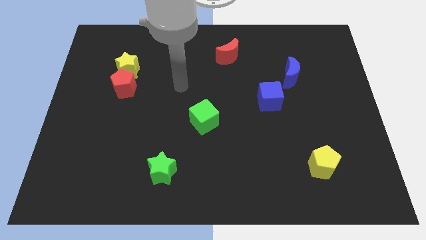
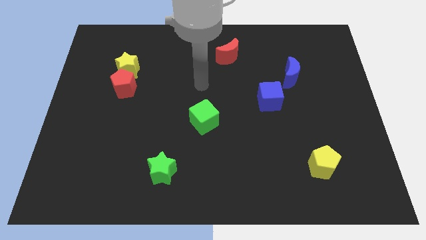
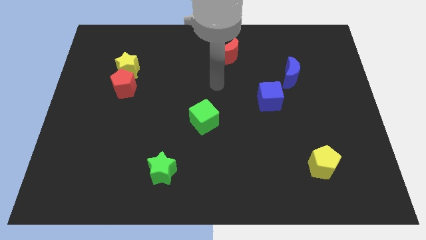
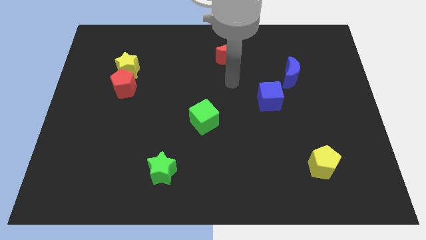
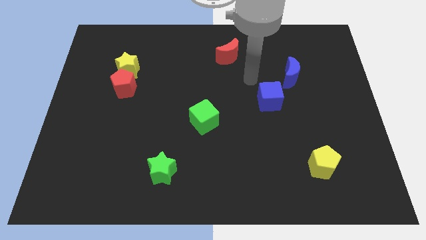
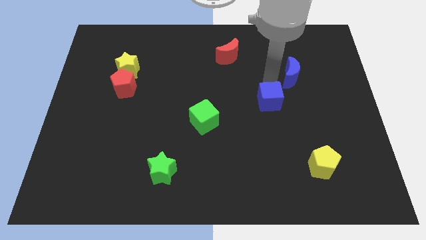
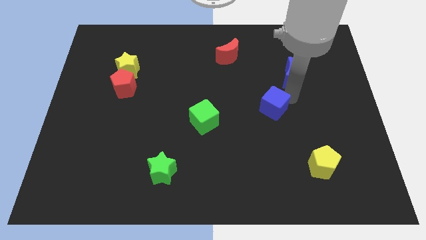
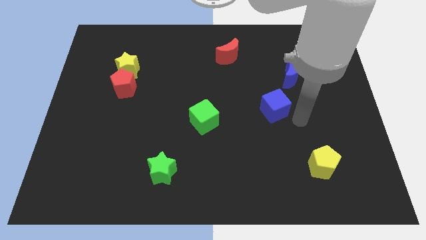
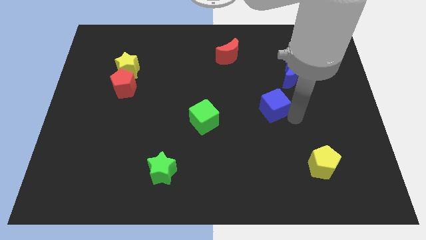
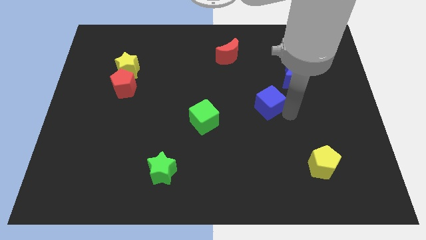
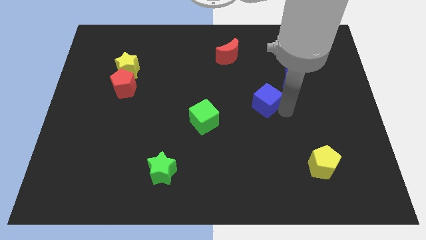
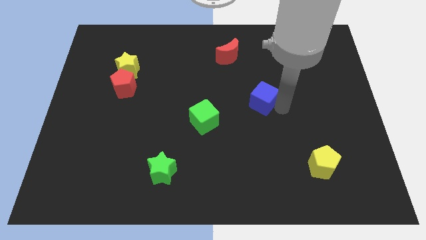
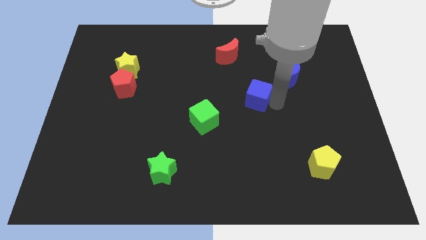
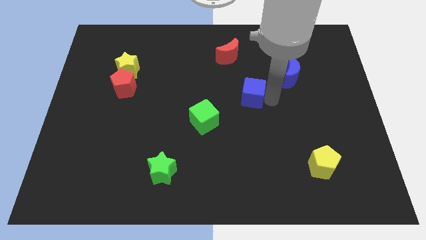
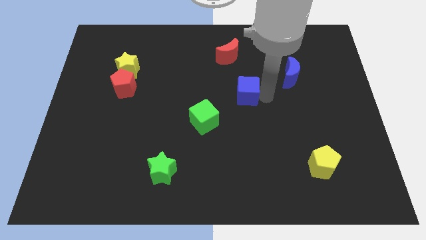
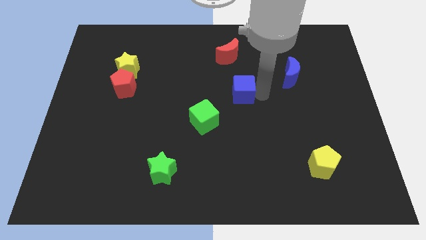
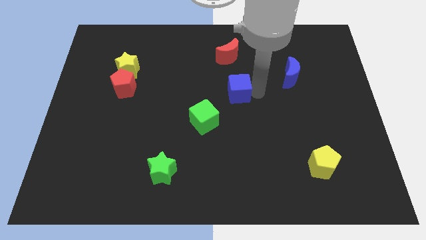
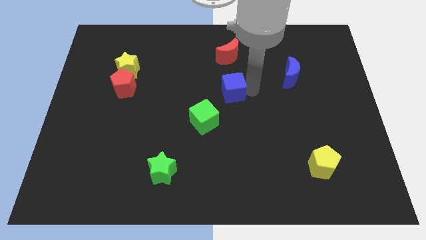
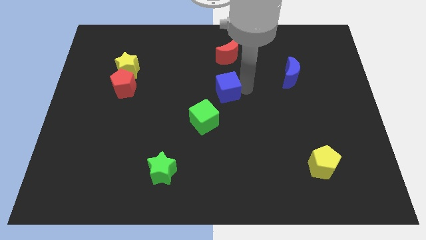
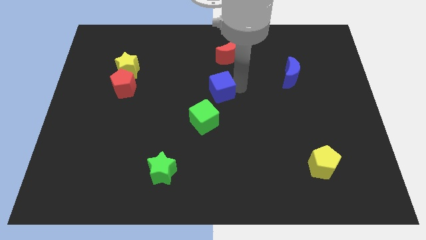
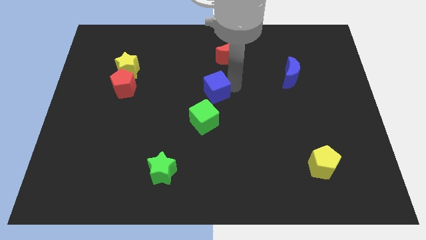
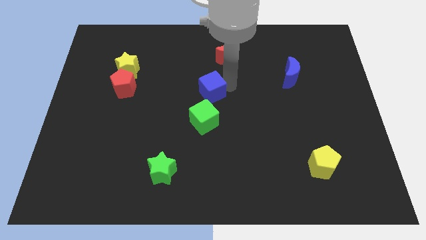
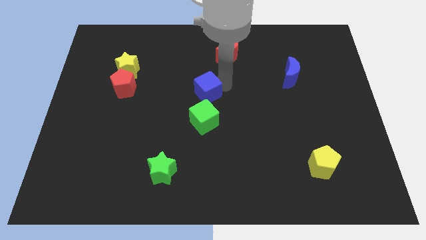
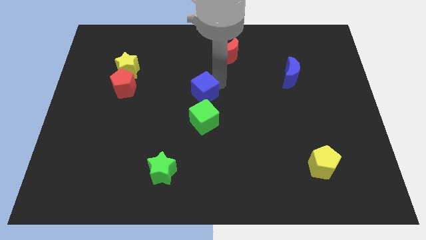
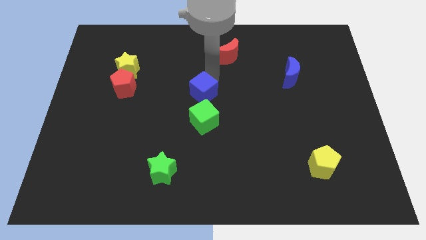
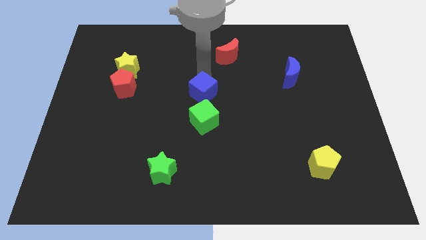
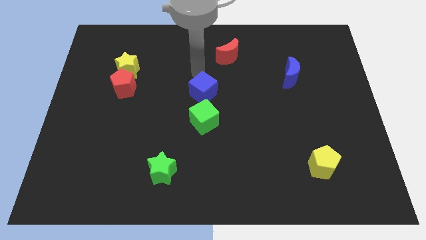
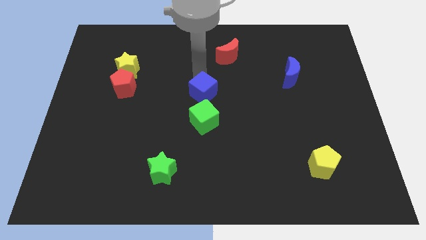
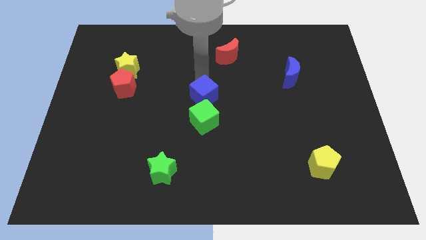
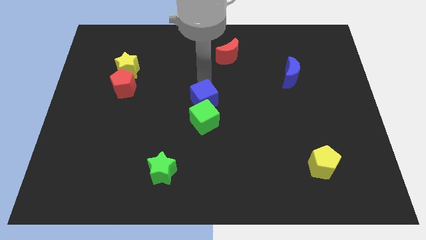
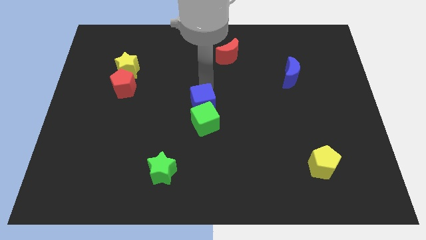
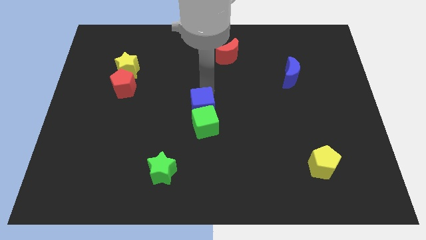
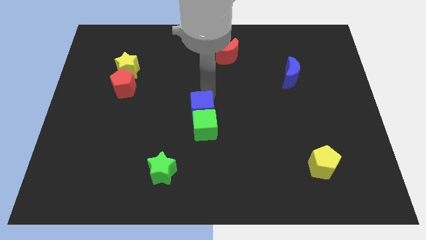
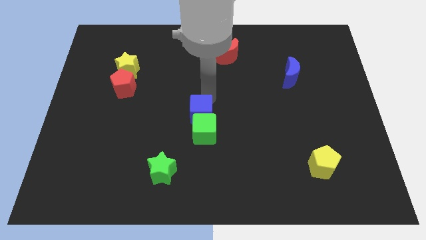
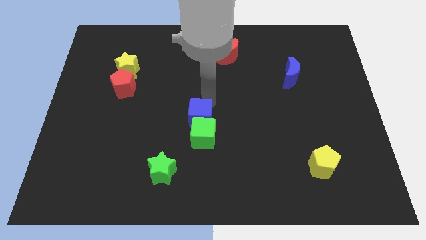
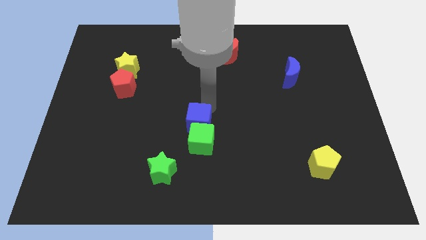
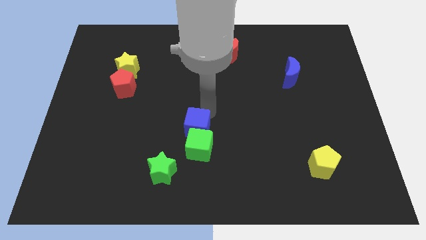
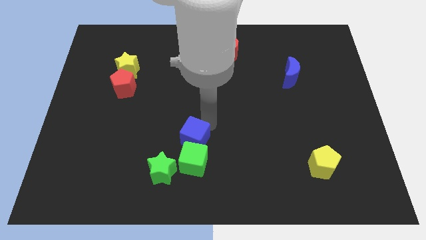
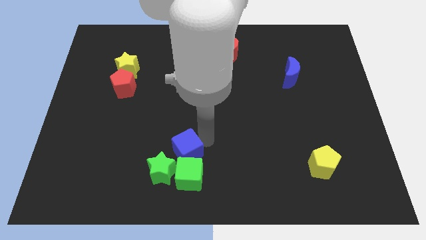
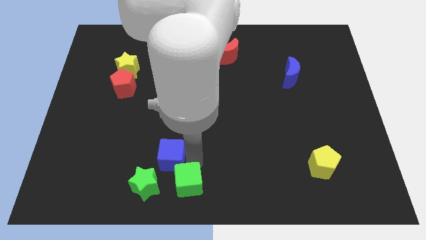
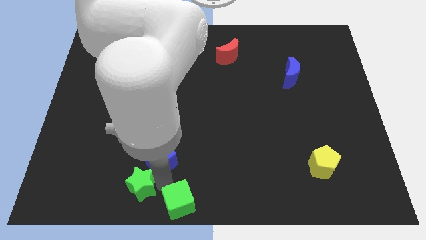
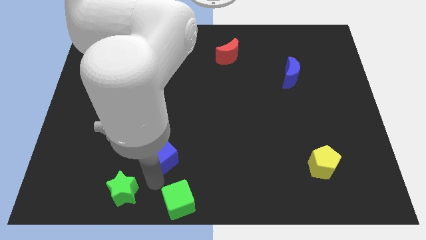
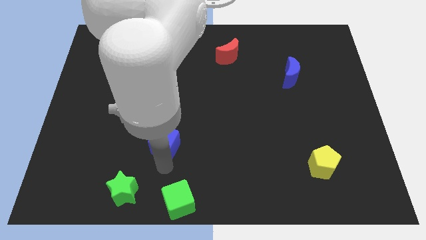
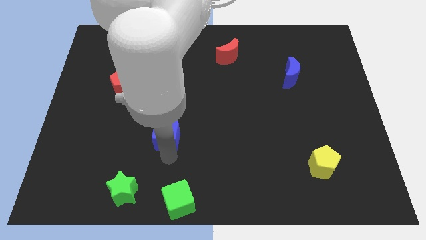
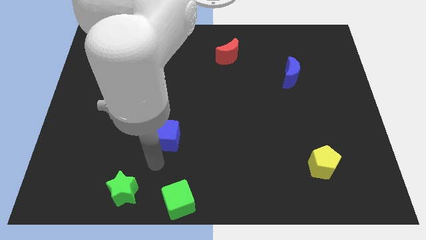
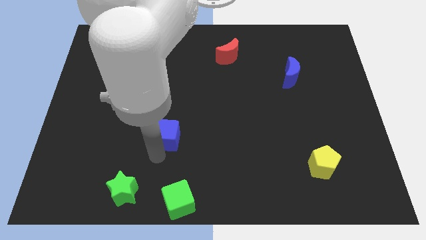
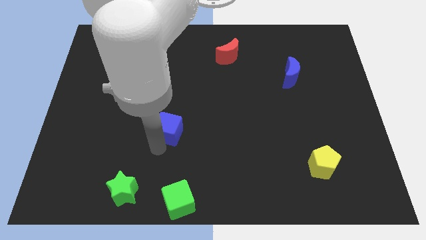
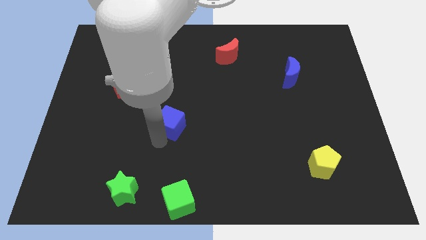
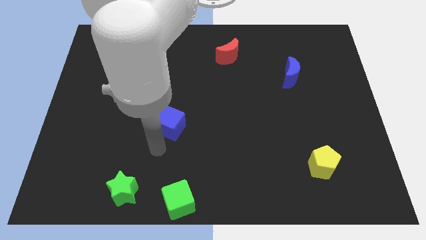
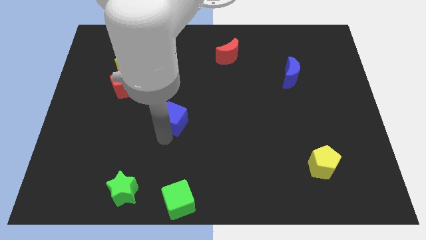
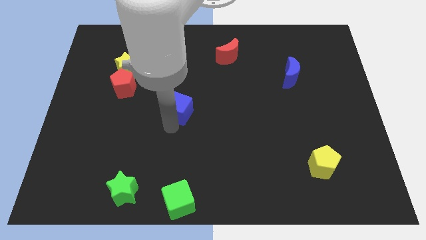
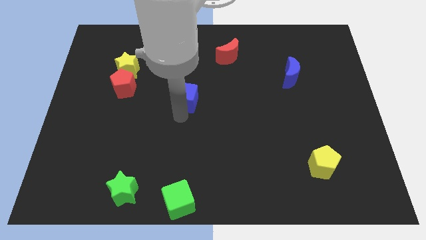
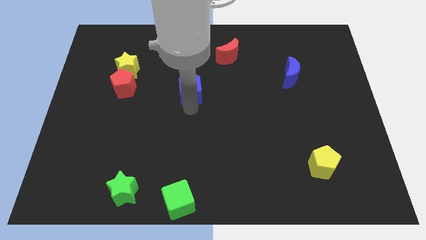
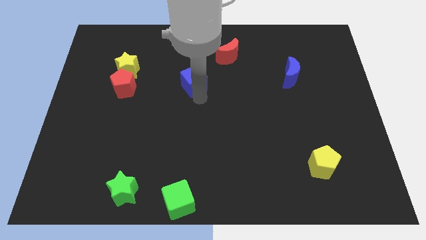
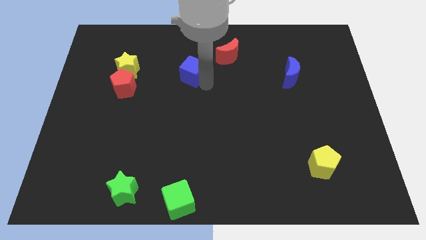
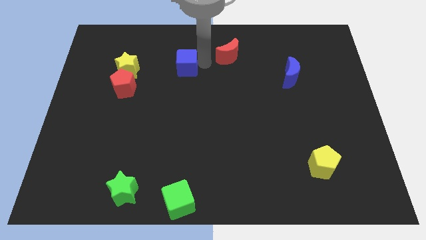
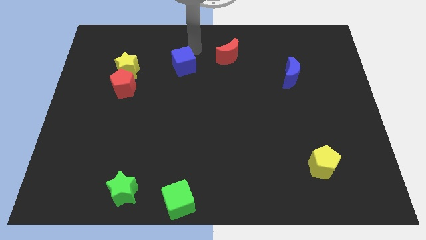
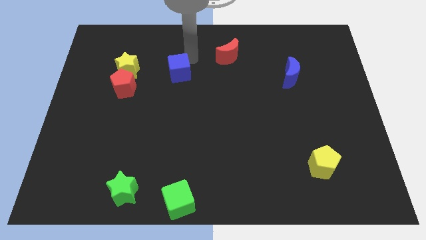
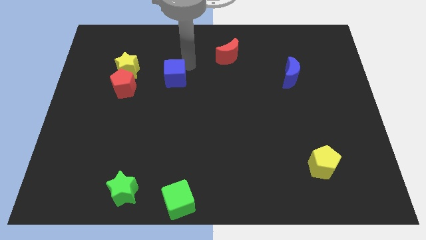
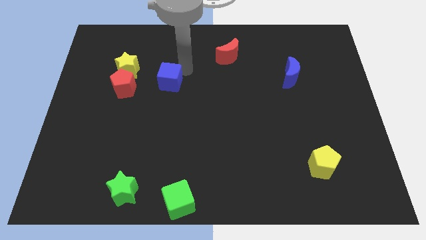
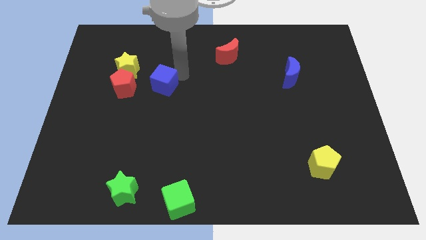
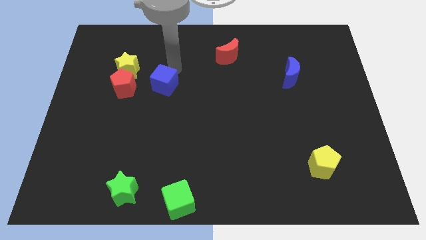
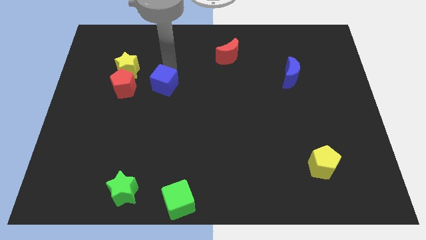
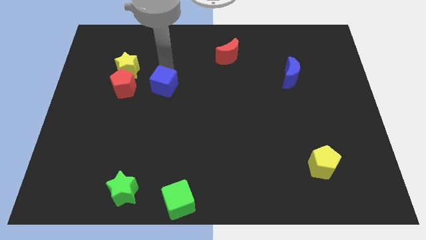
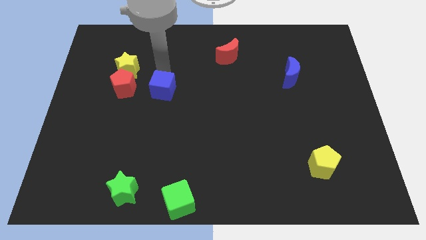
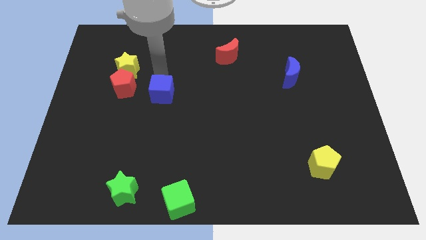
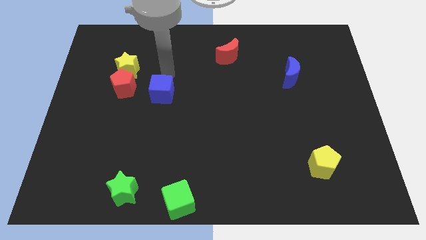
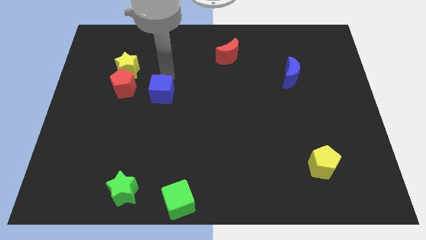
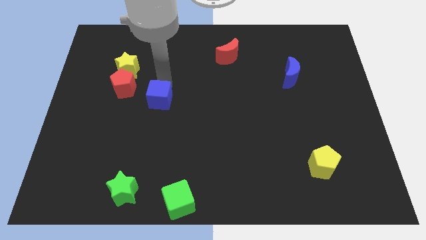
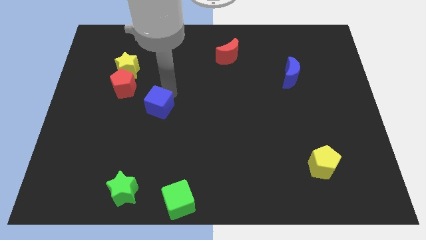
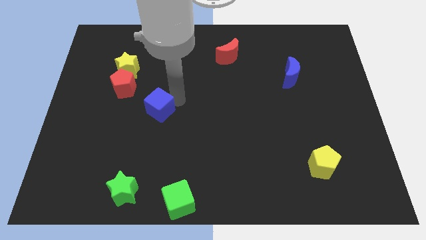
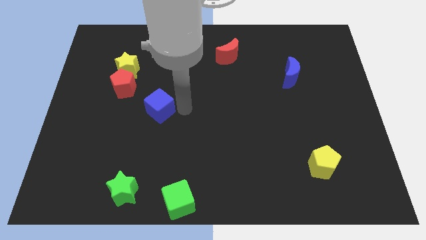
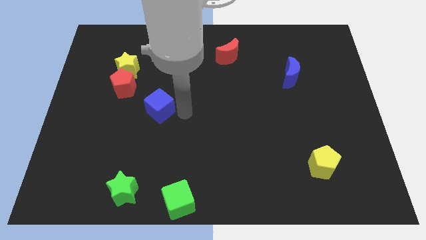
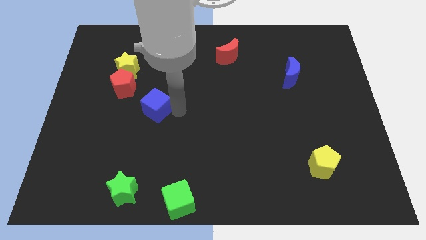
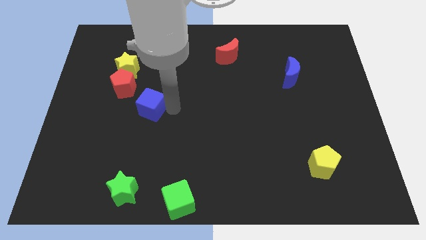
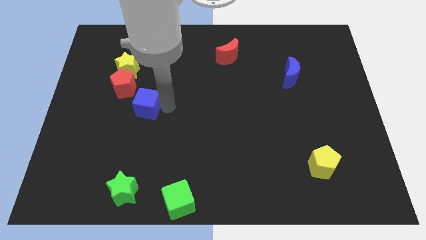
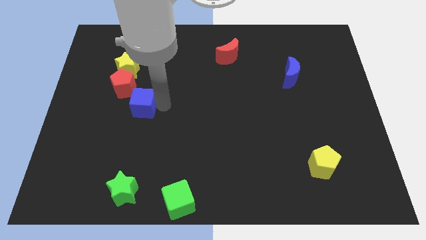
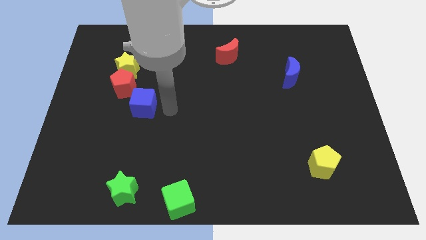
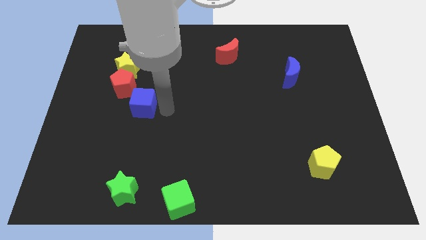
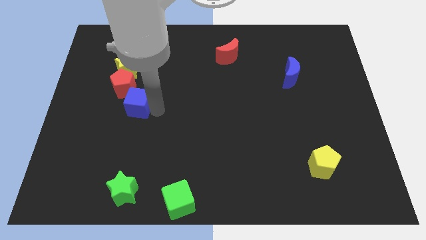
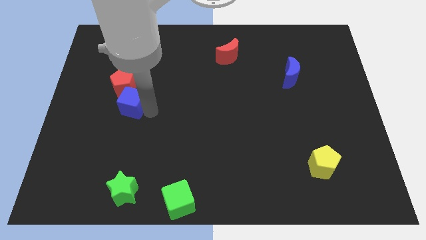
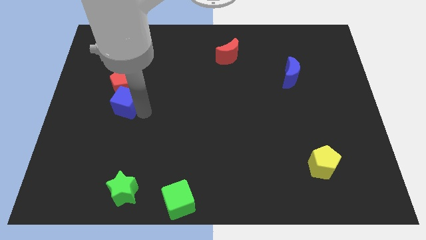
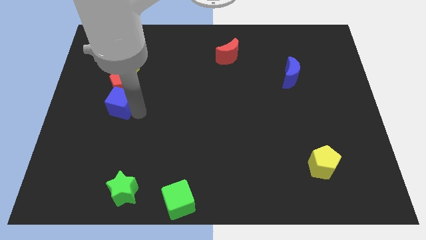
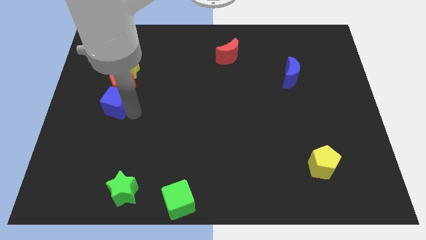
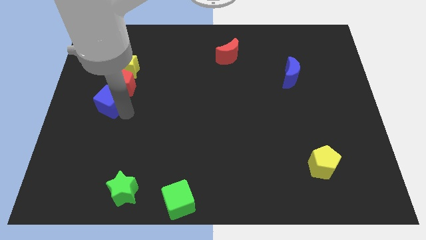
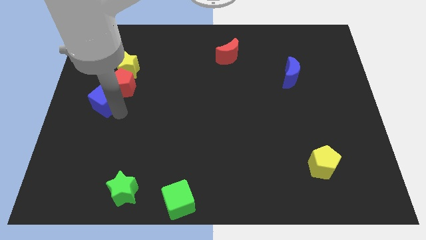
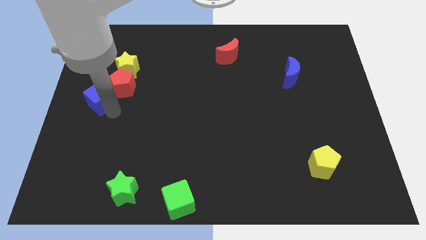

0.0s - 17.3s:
move the blue cube to the bottom left side of the yellow star
